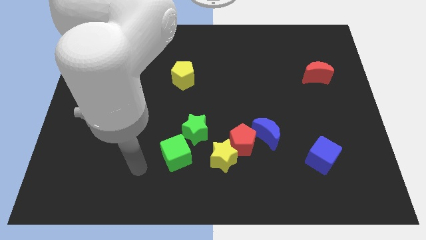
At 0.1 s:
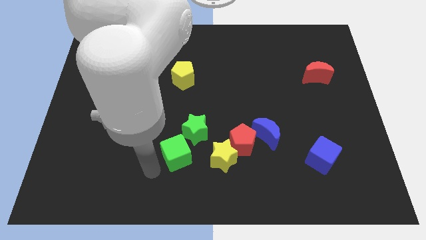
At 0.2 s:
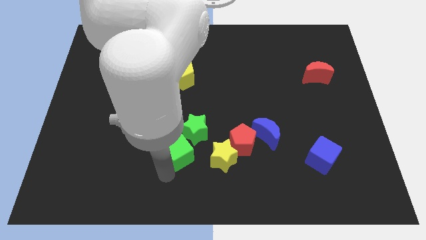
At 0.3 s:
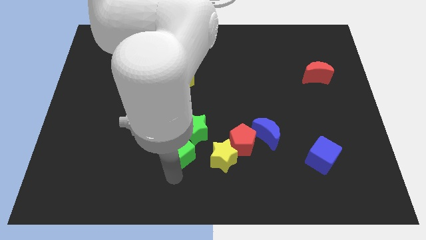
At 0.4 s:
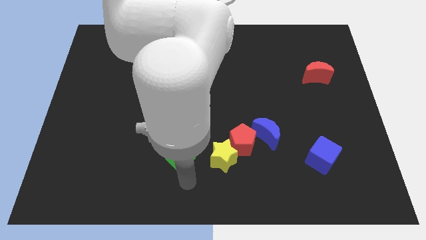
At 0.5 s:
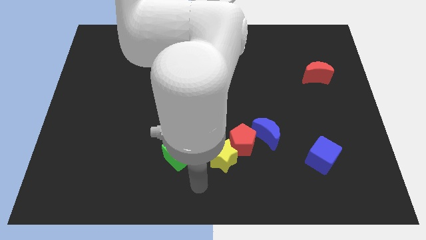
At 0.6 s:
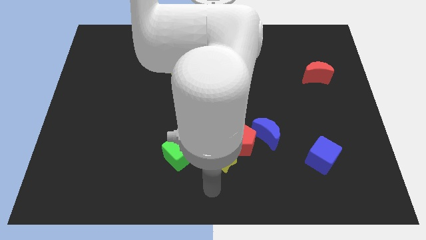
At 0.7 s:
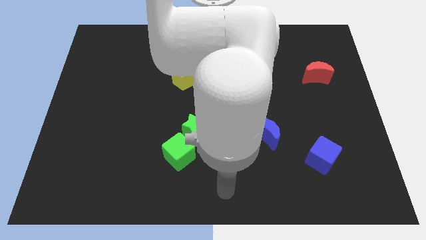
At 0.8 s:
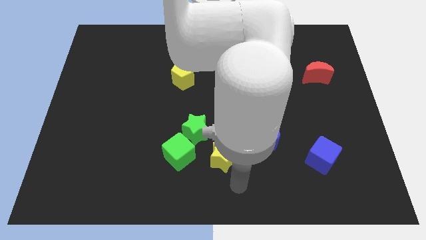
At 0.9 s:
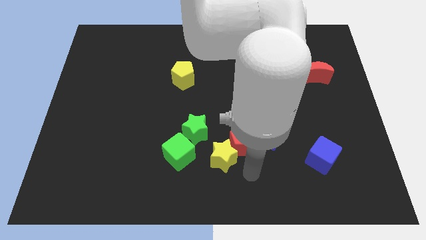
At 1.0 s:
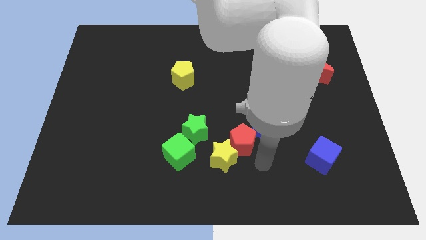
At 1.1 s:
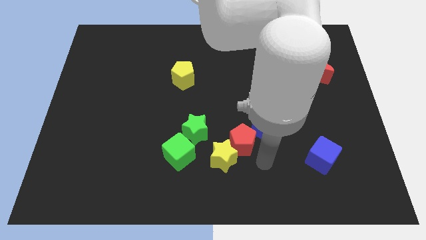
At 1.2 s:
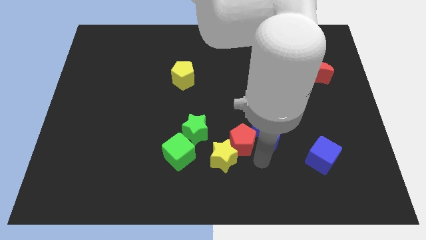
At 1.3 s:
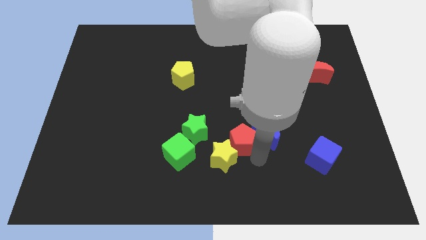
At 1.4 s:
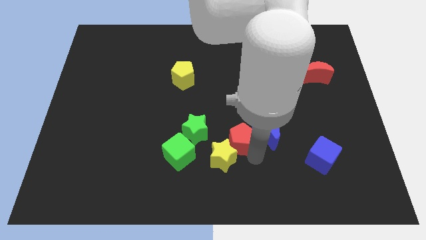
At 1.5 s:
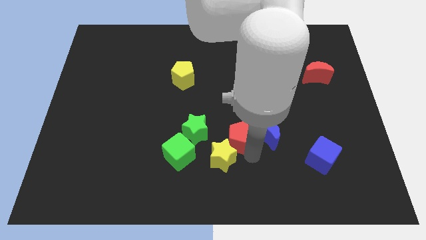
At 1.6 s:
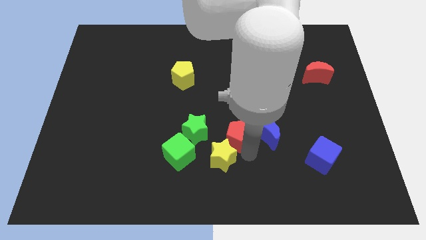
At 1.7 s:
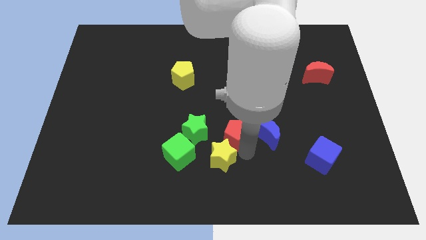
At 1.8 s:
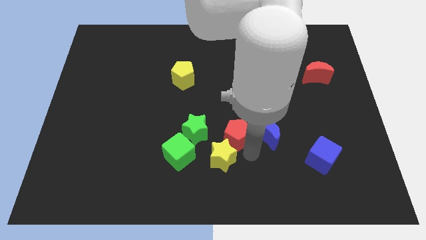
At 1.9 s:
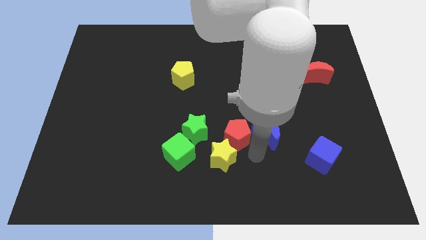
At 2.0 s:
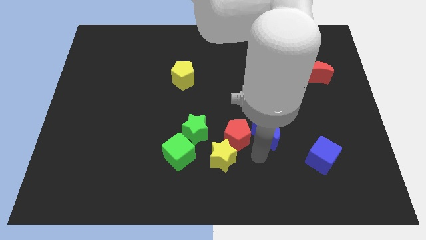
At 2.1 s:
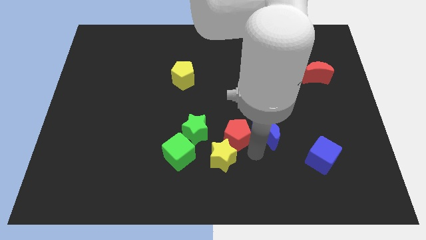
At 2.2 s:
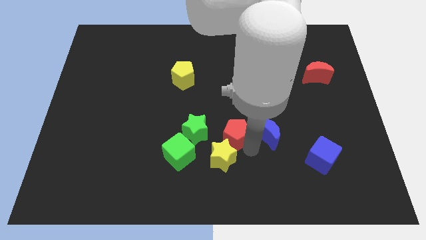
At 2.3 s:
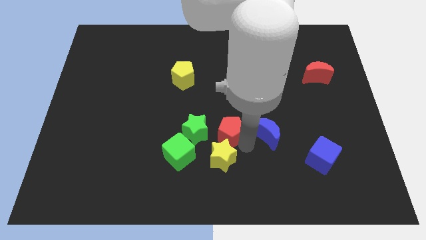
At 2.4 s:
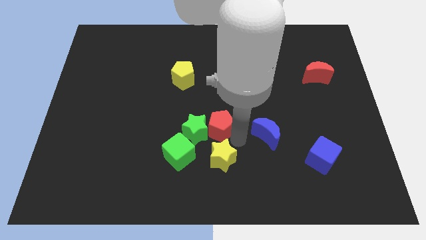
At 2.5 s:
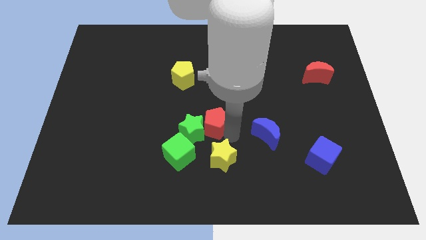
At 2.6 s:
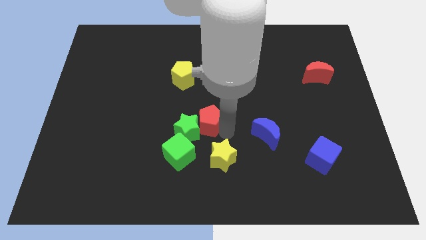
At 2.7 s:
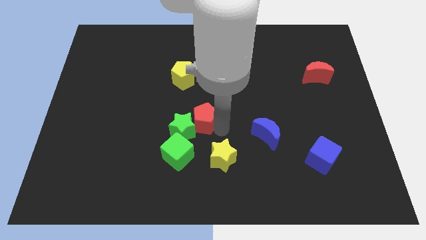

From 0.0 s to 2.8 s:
pull the red pentagon apart from the yellow star and blue moon

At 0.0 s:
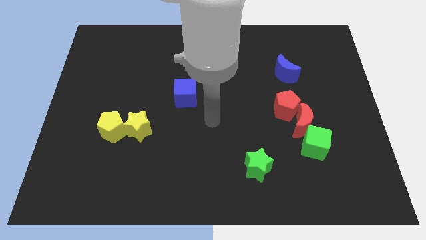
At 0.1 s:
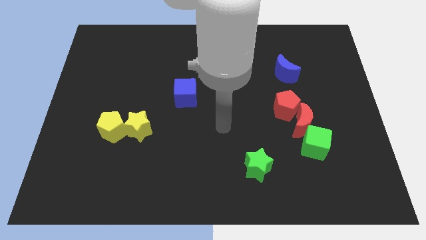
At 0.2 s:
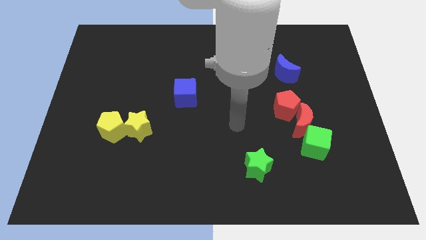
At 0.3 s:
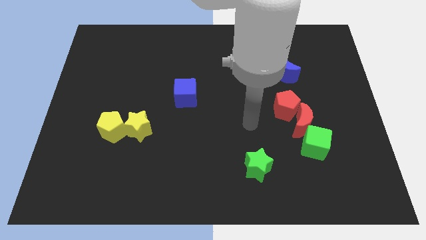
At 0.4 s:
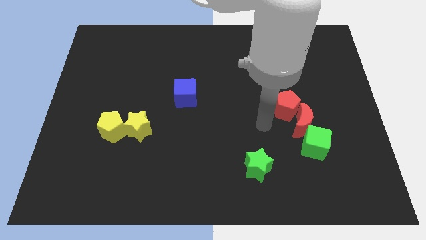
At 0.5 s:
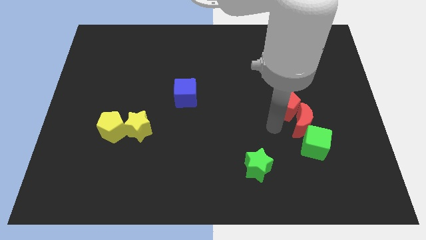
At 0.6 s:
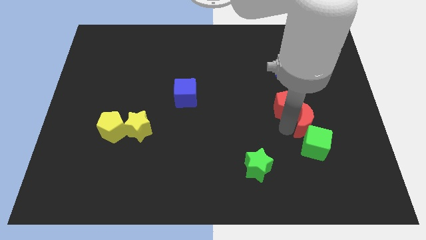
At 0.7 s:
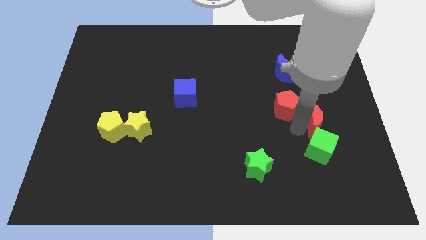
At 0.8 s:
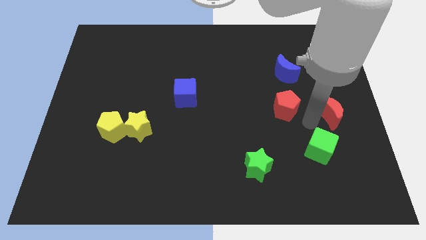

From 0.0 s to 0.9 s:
move the red pentagon away from the red moon

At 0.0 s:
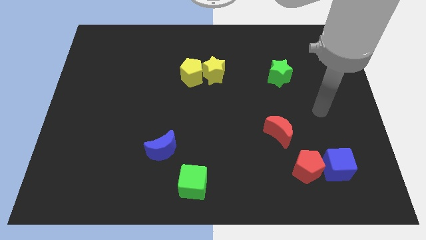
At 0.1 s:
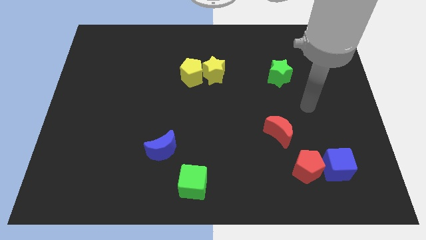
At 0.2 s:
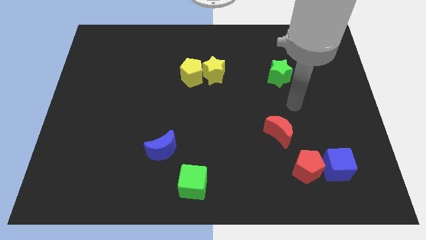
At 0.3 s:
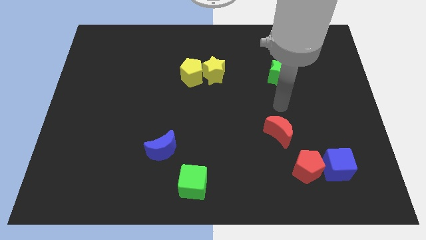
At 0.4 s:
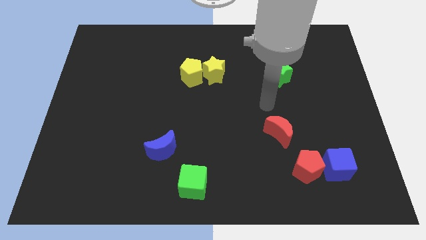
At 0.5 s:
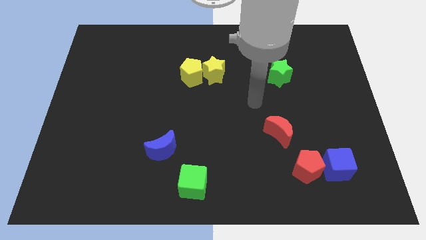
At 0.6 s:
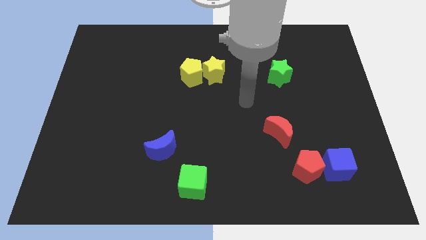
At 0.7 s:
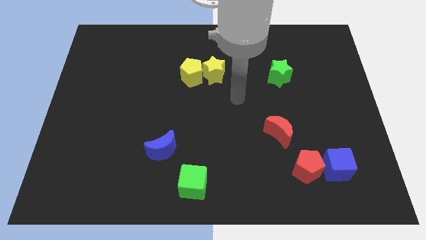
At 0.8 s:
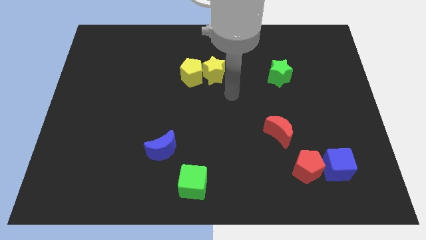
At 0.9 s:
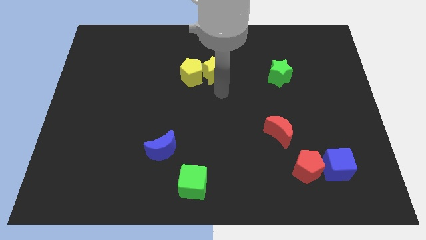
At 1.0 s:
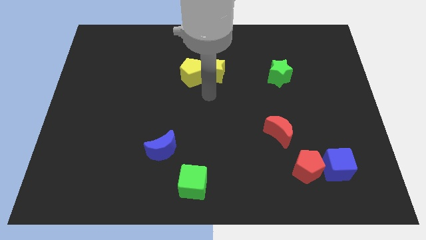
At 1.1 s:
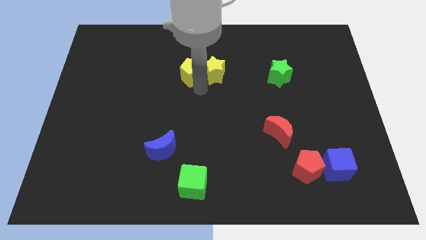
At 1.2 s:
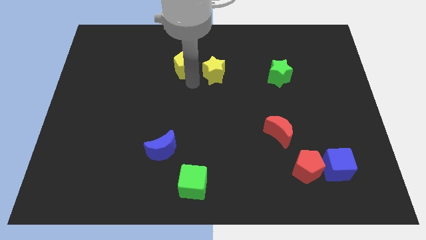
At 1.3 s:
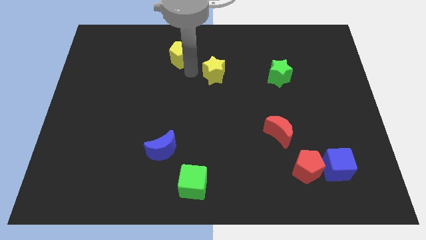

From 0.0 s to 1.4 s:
separate the yellow star from the yellow pentagon

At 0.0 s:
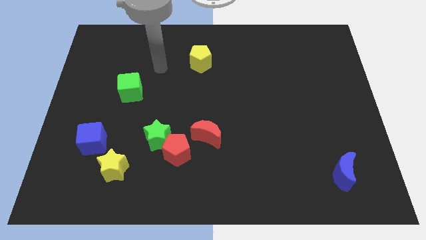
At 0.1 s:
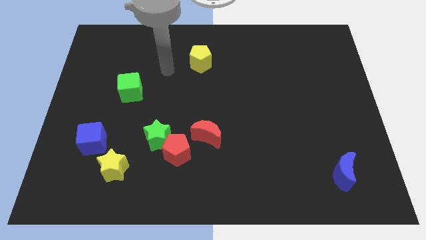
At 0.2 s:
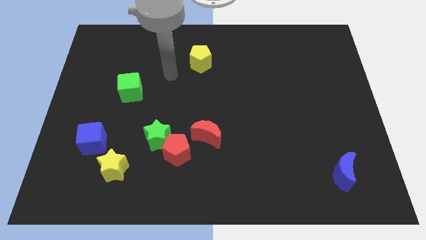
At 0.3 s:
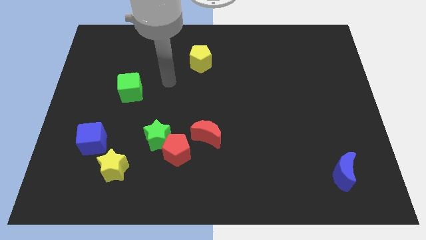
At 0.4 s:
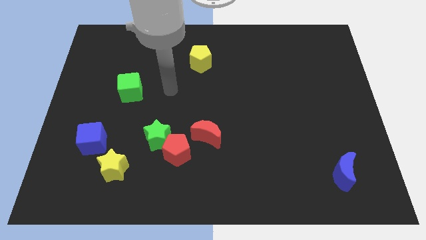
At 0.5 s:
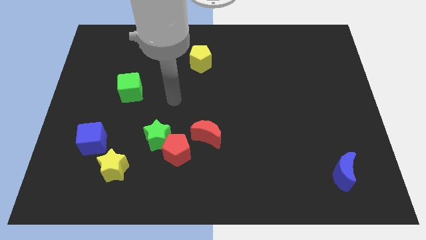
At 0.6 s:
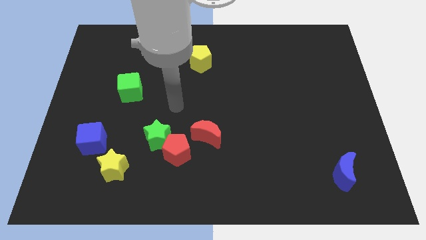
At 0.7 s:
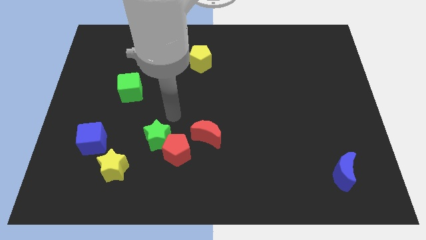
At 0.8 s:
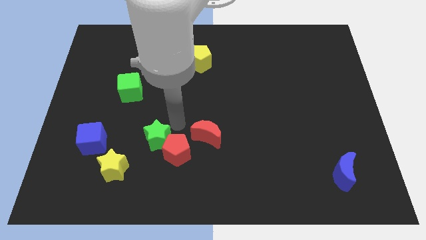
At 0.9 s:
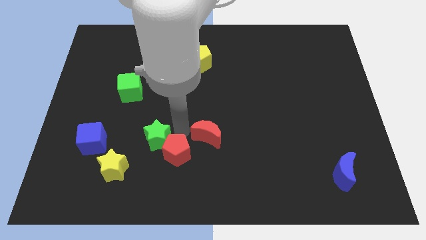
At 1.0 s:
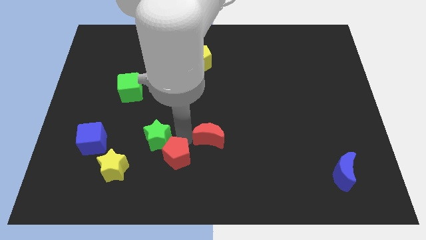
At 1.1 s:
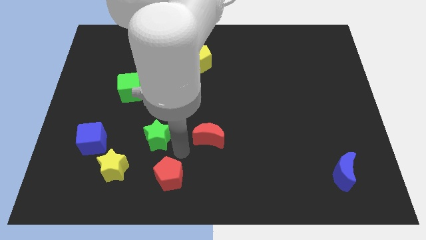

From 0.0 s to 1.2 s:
pull the green star apart from the red pentagon

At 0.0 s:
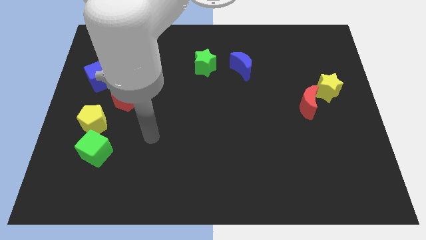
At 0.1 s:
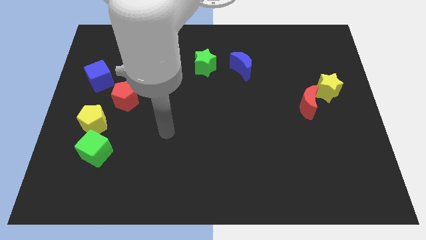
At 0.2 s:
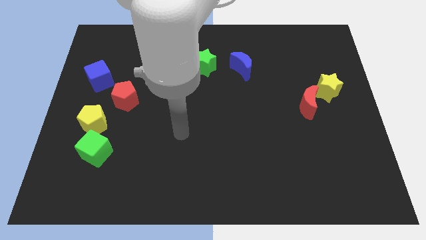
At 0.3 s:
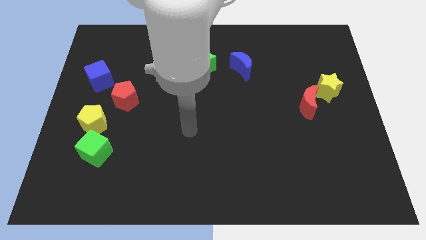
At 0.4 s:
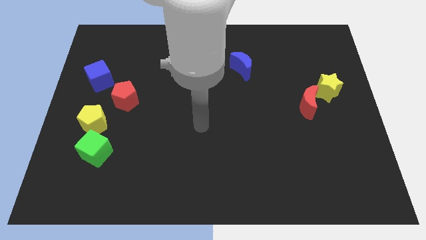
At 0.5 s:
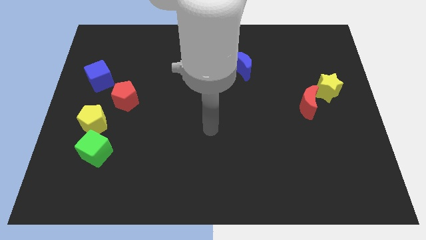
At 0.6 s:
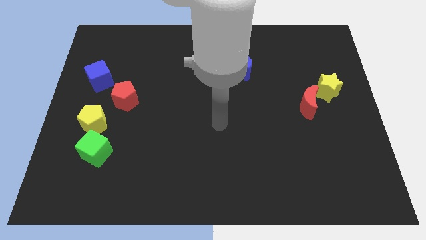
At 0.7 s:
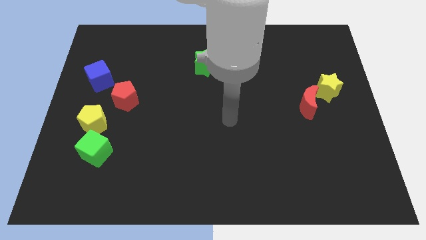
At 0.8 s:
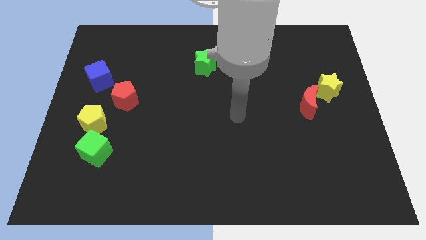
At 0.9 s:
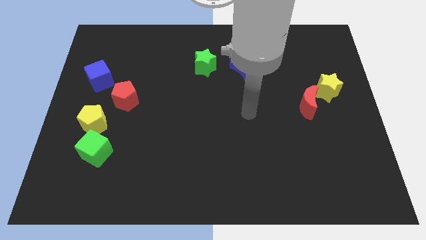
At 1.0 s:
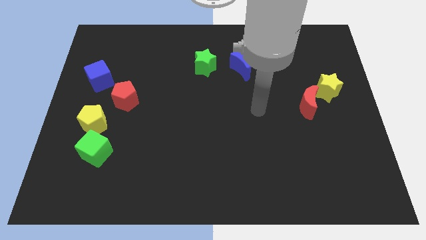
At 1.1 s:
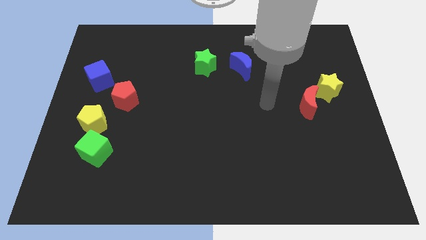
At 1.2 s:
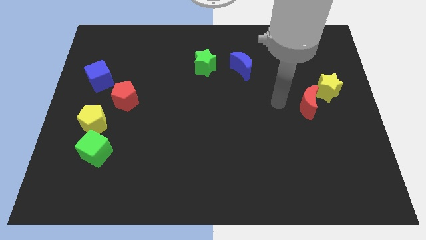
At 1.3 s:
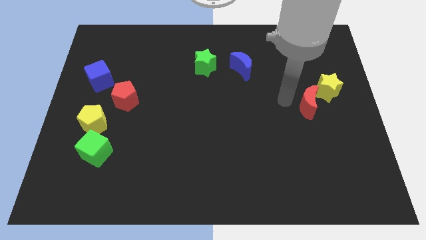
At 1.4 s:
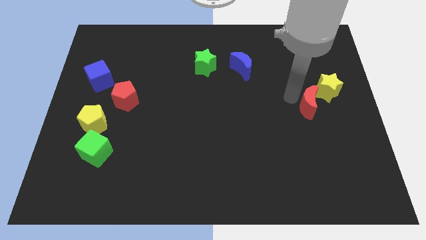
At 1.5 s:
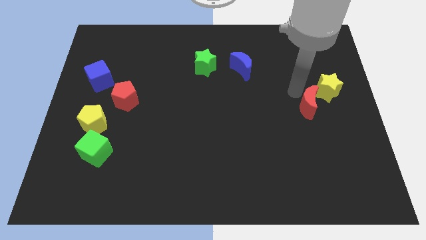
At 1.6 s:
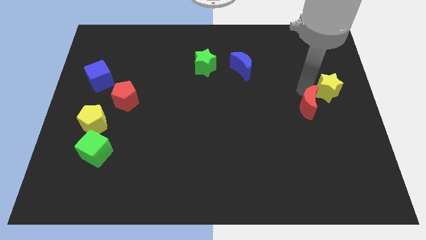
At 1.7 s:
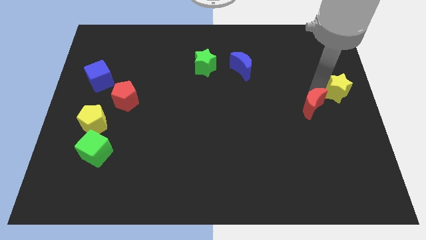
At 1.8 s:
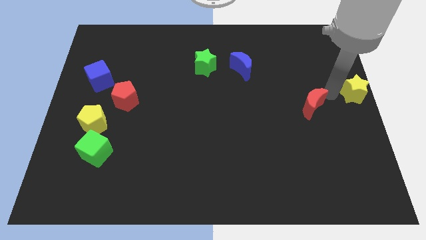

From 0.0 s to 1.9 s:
move the red moon away from the yellow star

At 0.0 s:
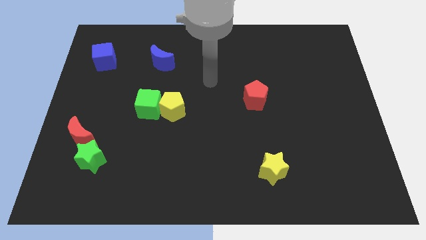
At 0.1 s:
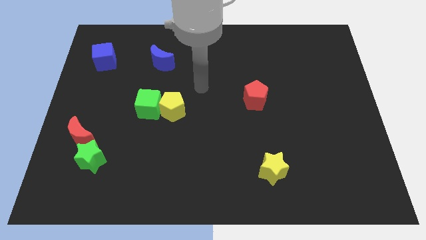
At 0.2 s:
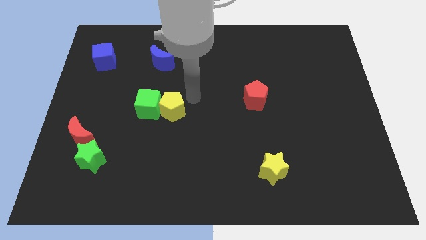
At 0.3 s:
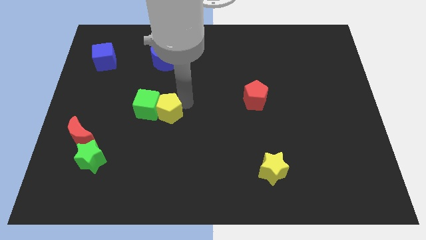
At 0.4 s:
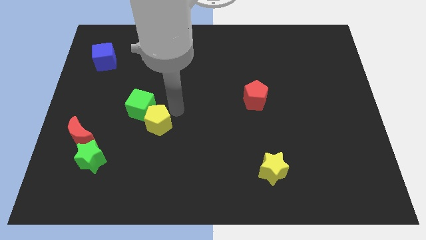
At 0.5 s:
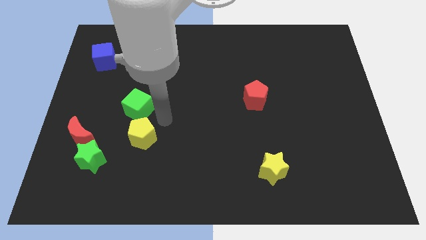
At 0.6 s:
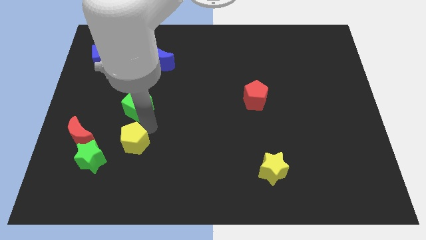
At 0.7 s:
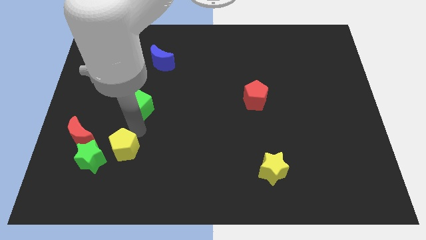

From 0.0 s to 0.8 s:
pull the green cube apart from the yellow pentagon

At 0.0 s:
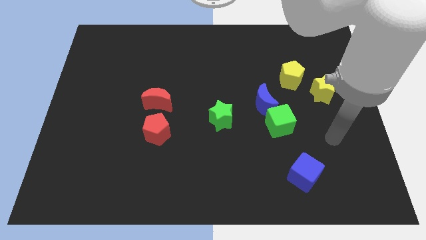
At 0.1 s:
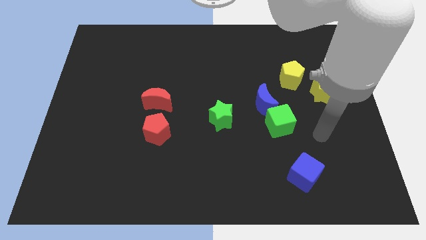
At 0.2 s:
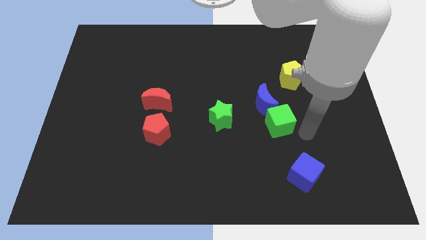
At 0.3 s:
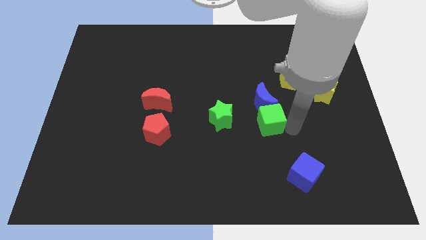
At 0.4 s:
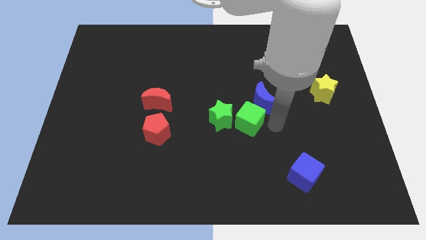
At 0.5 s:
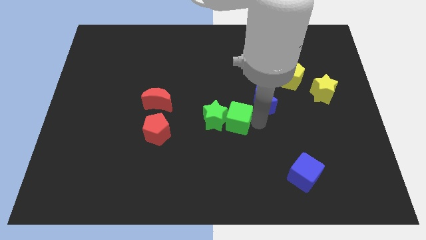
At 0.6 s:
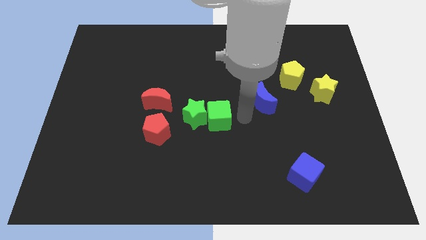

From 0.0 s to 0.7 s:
move the blue moon away from the green cube
